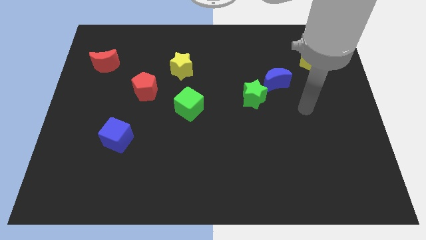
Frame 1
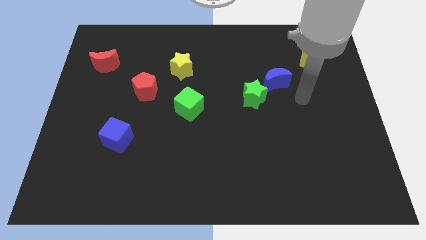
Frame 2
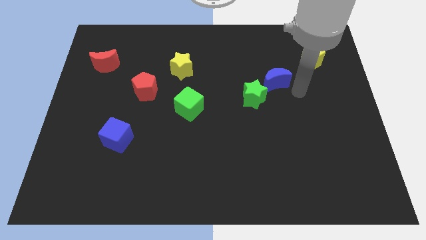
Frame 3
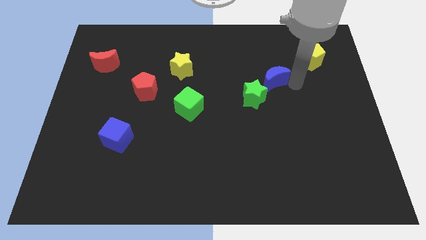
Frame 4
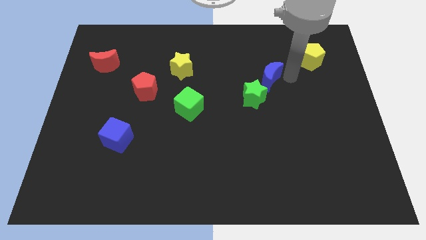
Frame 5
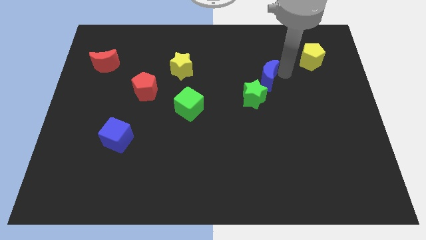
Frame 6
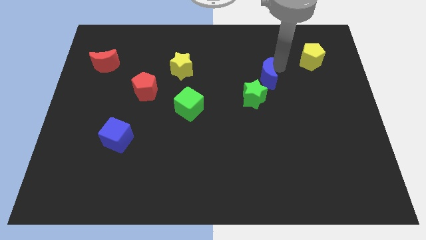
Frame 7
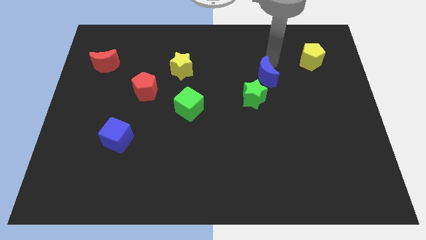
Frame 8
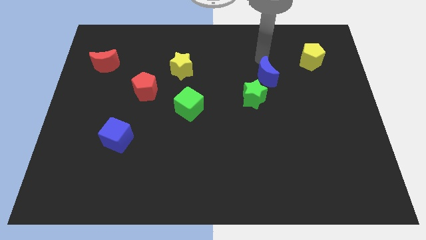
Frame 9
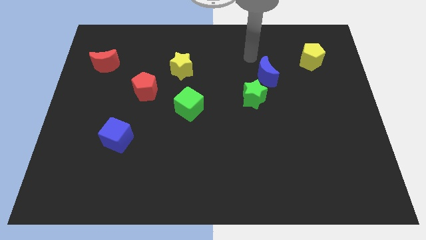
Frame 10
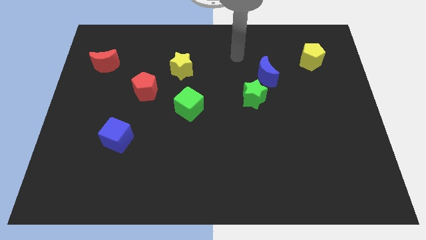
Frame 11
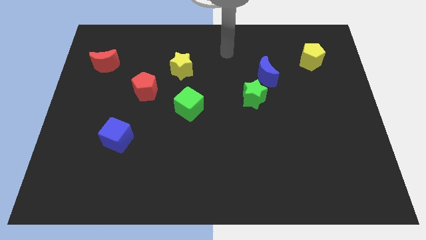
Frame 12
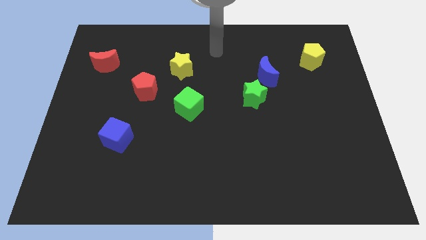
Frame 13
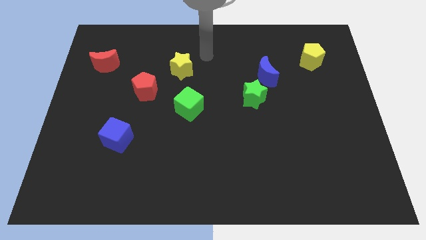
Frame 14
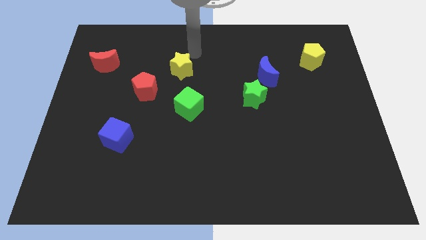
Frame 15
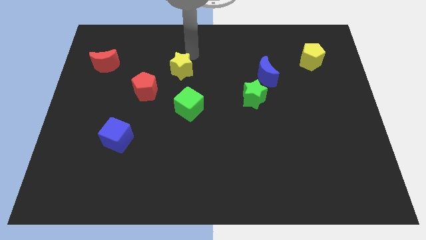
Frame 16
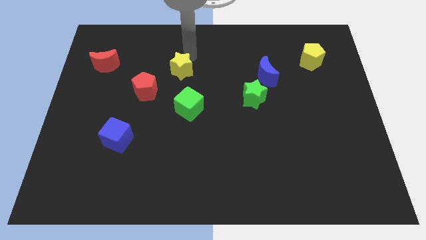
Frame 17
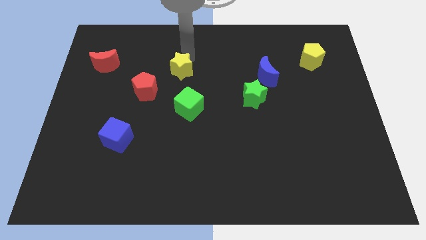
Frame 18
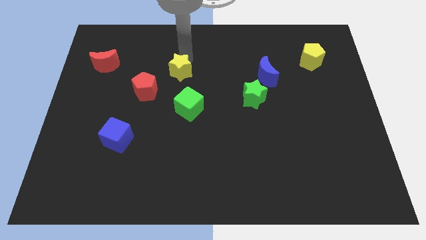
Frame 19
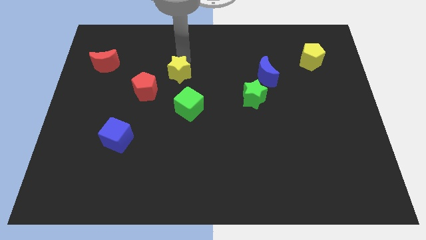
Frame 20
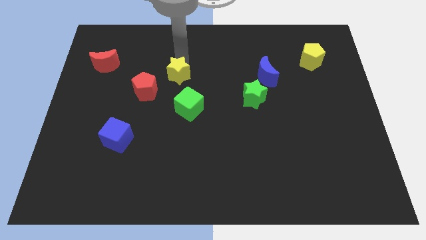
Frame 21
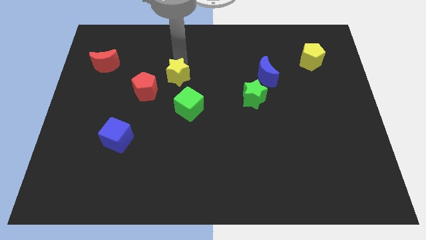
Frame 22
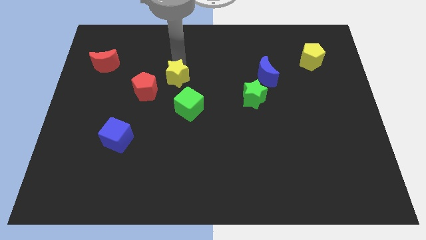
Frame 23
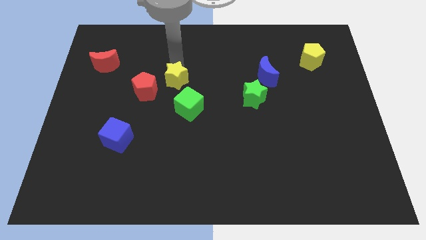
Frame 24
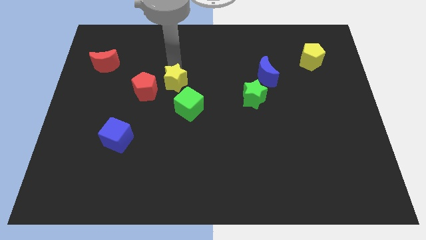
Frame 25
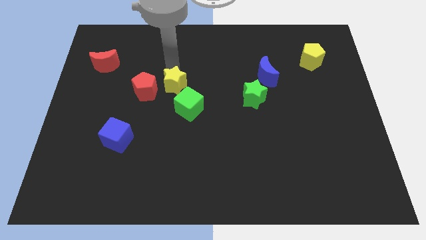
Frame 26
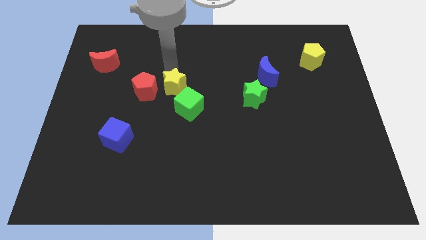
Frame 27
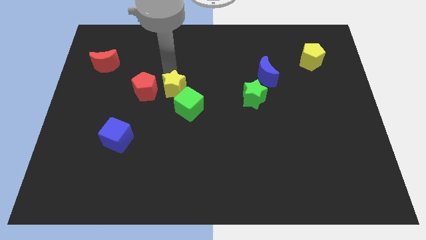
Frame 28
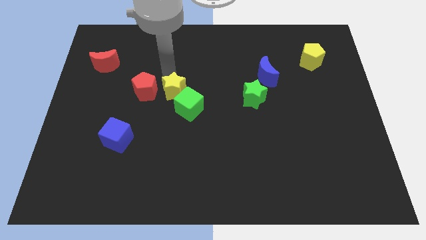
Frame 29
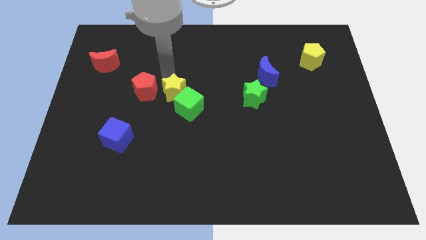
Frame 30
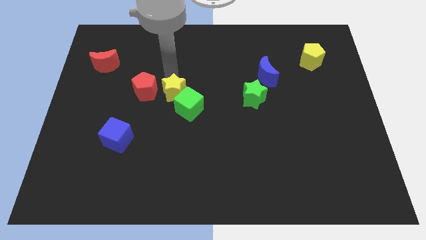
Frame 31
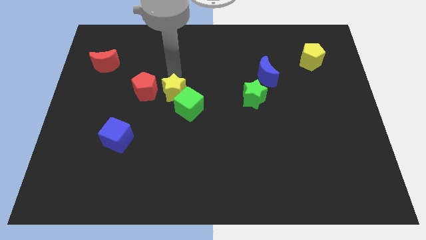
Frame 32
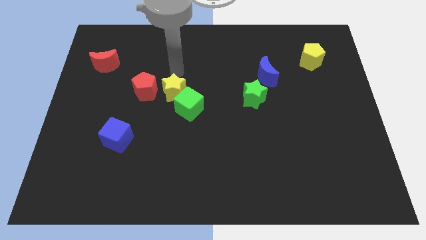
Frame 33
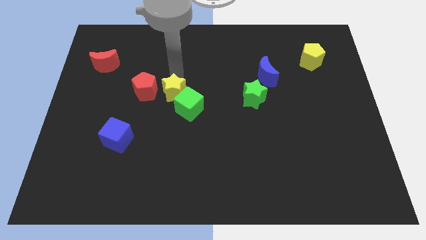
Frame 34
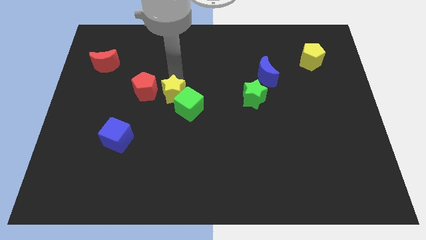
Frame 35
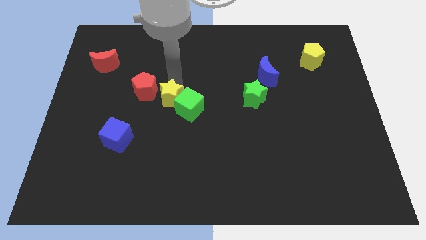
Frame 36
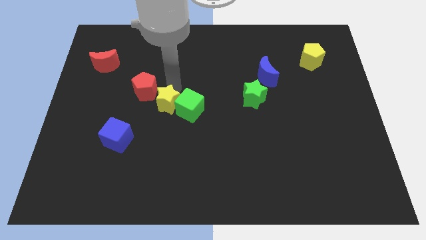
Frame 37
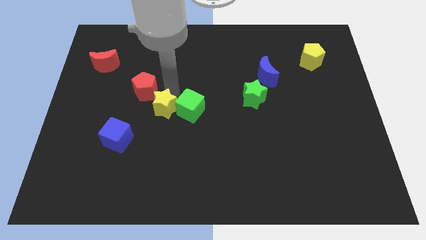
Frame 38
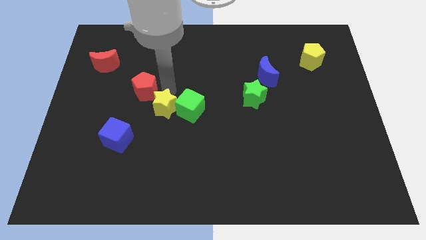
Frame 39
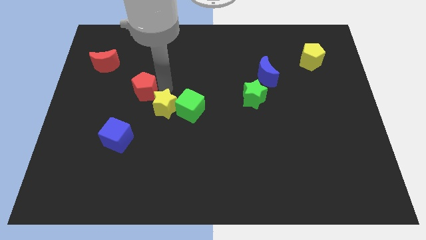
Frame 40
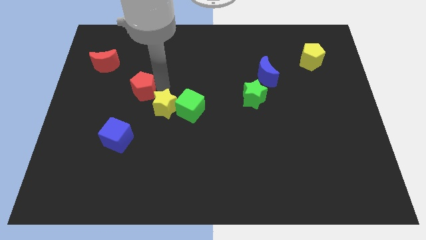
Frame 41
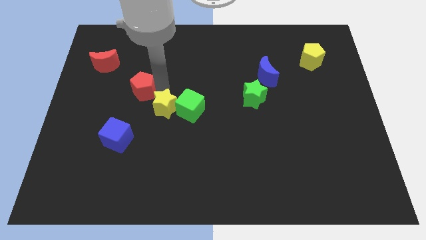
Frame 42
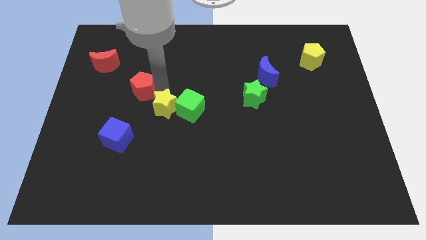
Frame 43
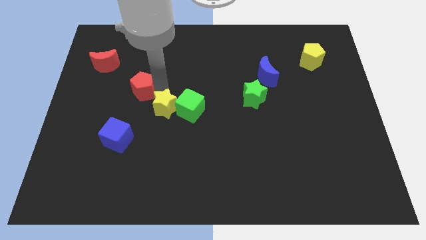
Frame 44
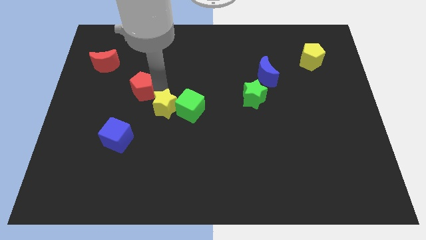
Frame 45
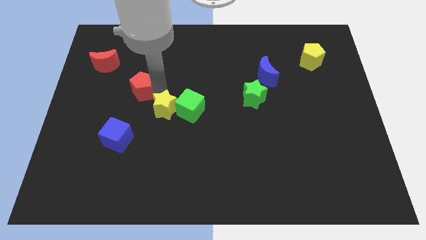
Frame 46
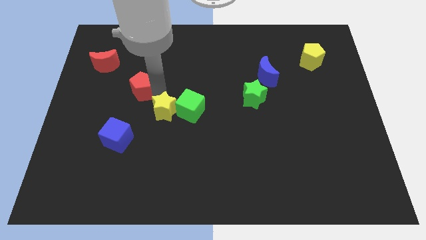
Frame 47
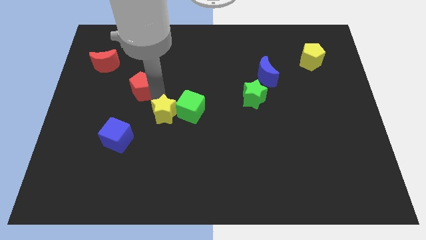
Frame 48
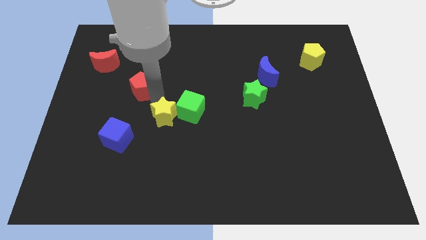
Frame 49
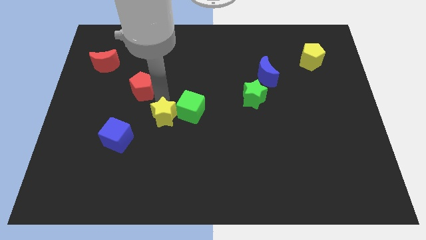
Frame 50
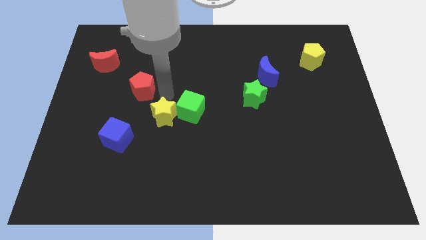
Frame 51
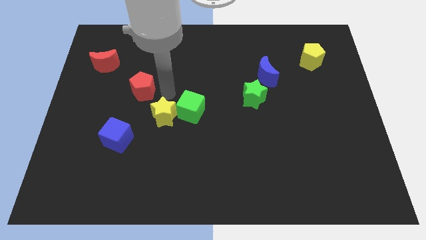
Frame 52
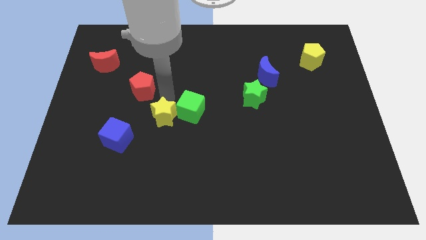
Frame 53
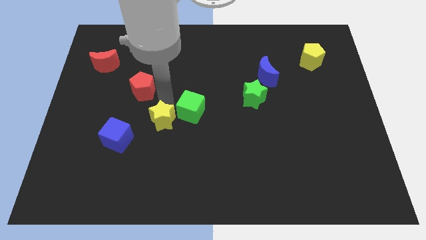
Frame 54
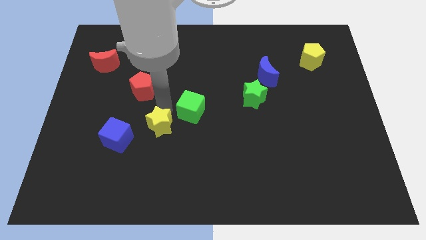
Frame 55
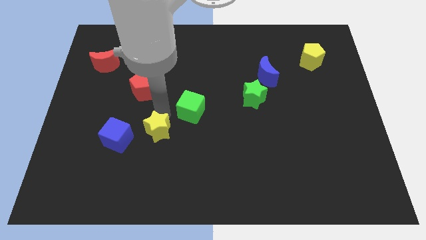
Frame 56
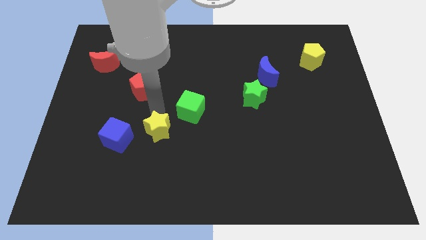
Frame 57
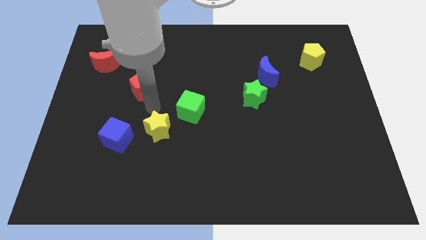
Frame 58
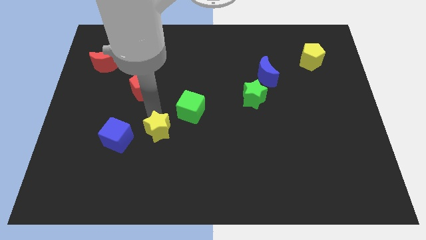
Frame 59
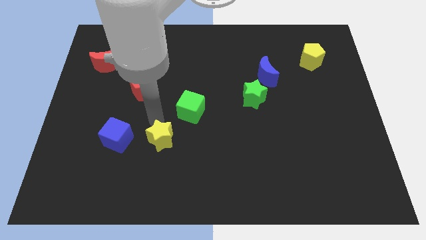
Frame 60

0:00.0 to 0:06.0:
slide the yellow star downwards

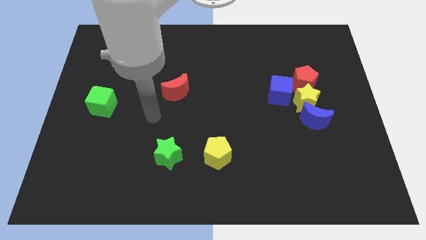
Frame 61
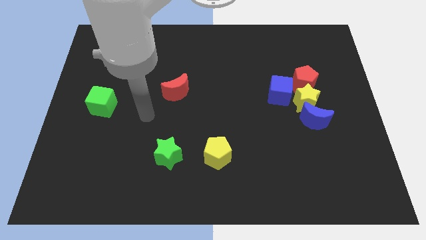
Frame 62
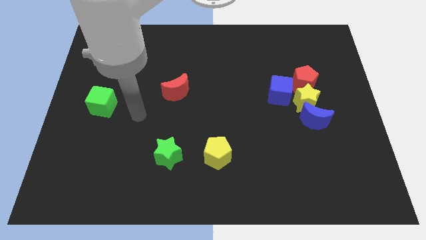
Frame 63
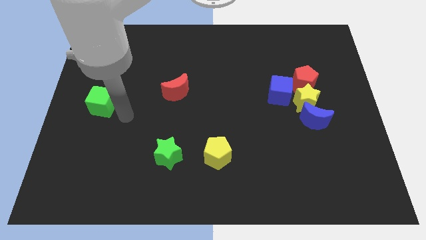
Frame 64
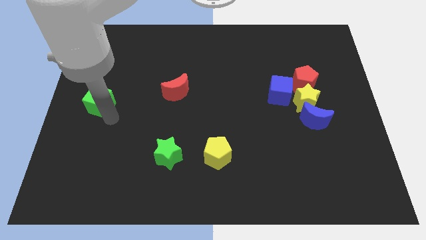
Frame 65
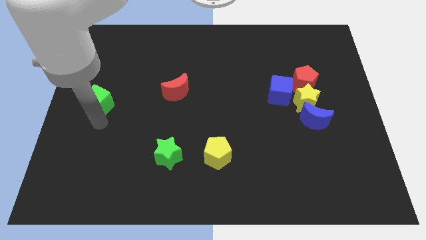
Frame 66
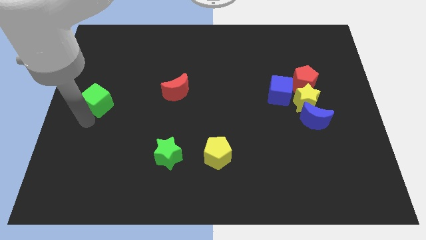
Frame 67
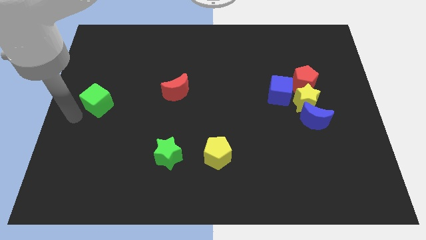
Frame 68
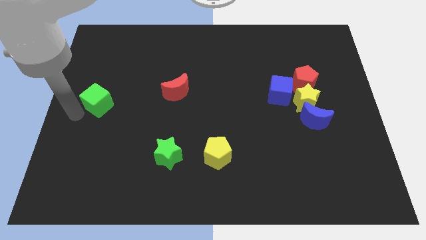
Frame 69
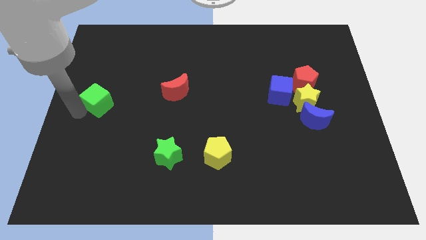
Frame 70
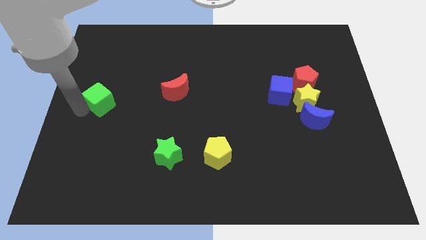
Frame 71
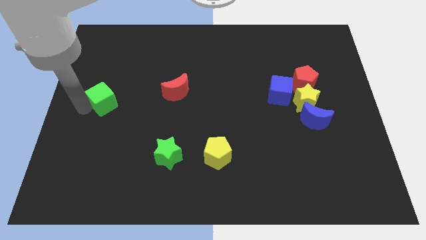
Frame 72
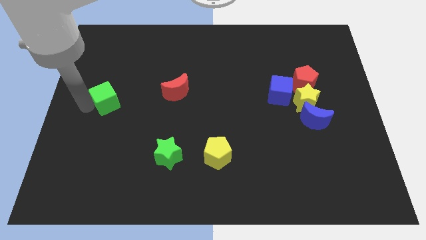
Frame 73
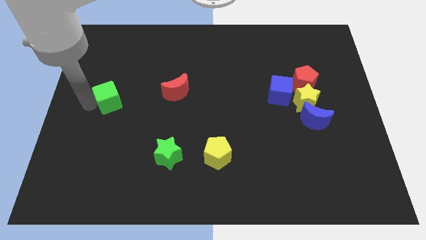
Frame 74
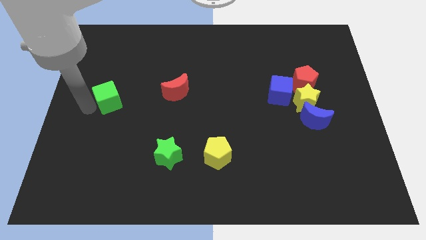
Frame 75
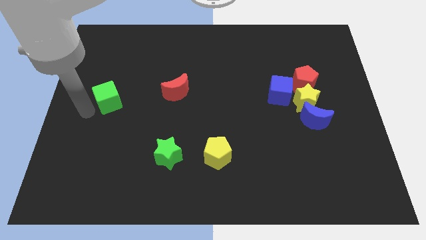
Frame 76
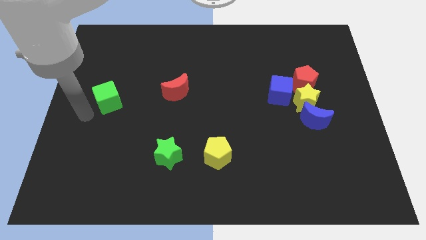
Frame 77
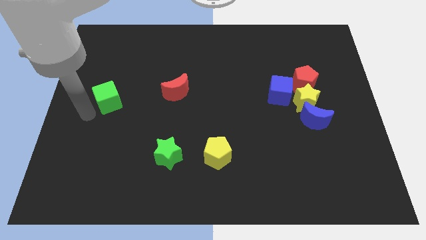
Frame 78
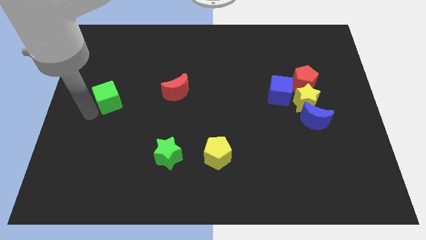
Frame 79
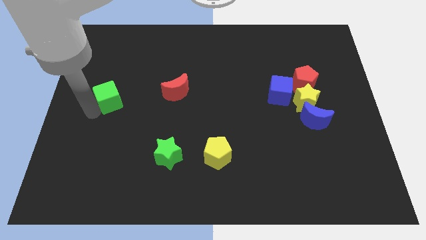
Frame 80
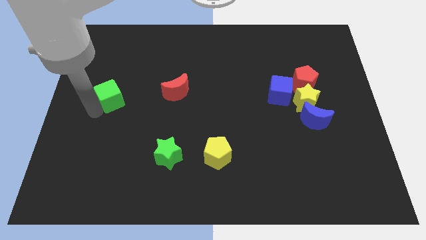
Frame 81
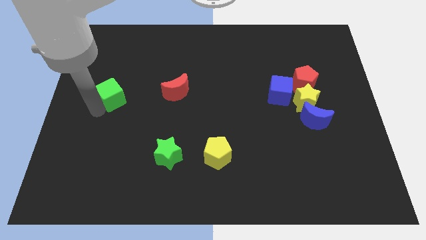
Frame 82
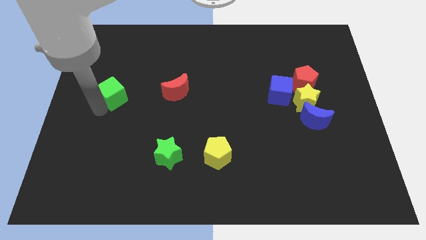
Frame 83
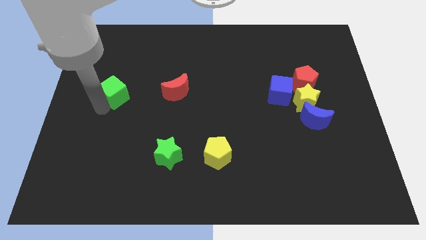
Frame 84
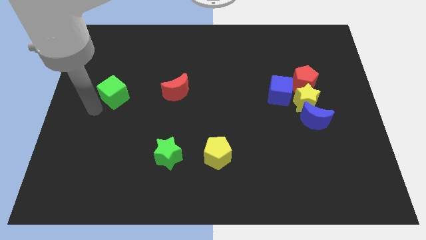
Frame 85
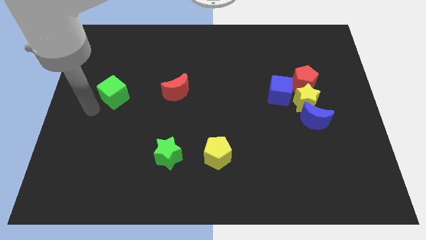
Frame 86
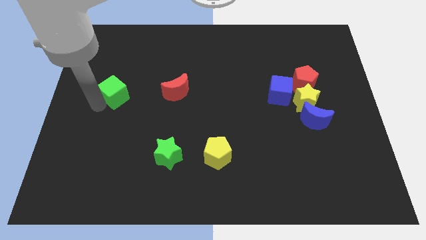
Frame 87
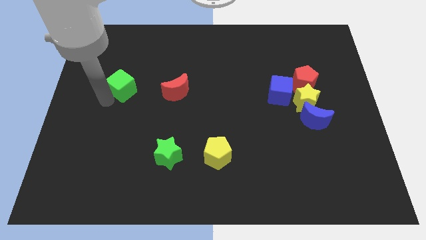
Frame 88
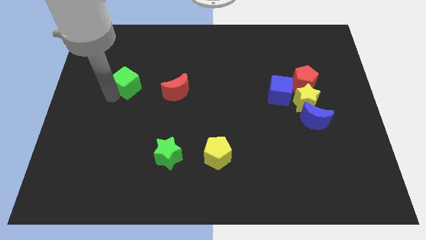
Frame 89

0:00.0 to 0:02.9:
slide the green cube up and right a little bit

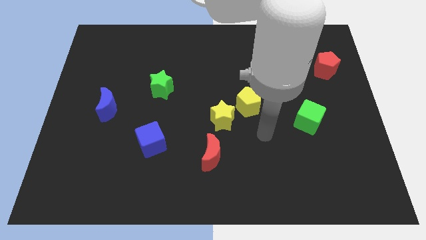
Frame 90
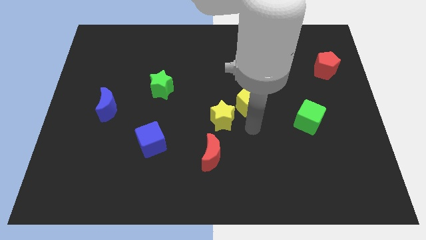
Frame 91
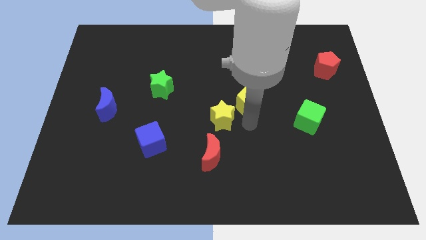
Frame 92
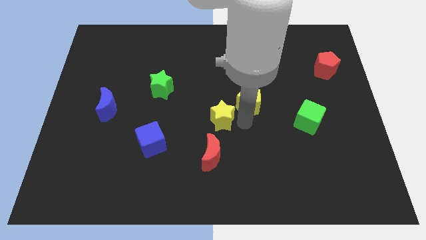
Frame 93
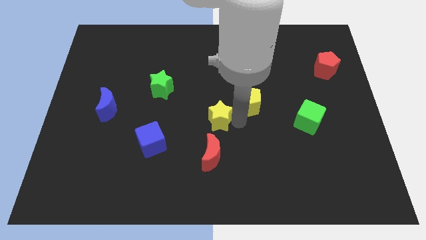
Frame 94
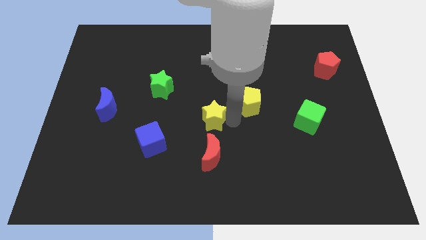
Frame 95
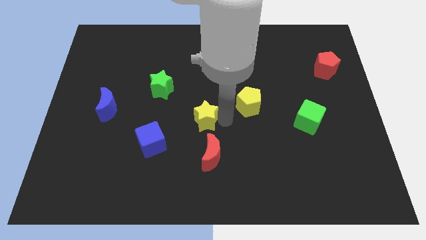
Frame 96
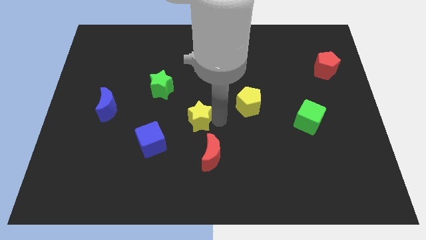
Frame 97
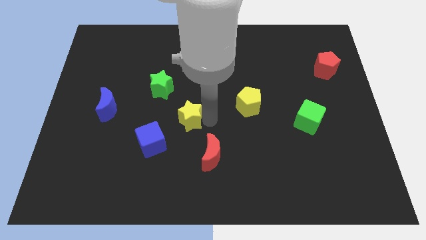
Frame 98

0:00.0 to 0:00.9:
slide the yellow star a little bit left
